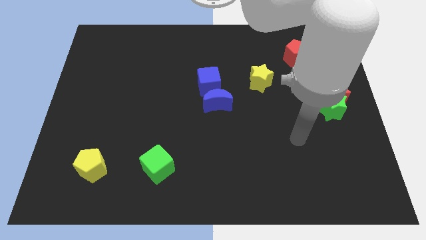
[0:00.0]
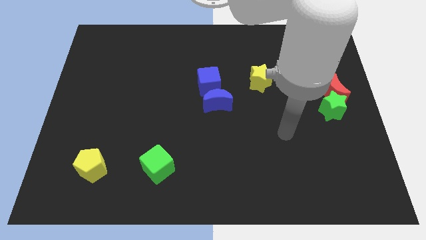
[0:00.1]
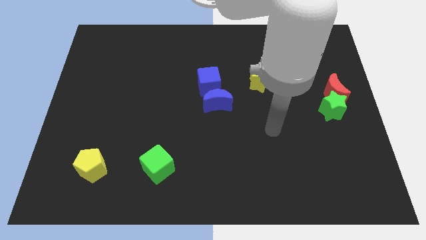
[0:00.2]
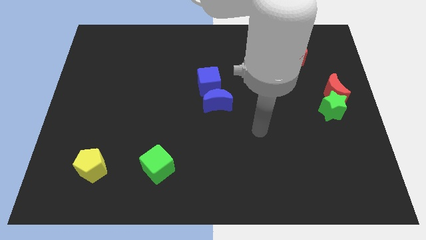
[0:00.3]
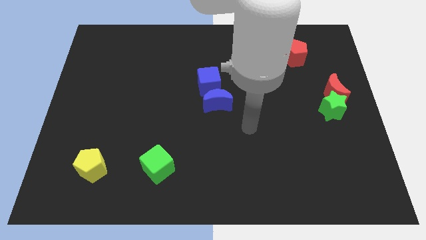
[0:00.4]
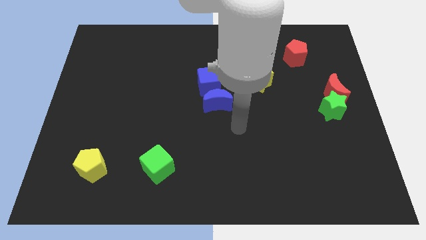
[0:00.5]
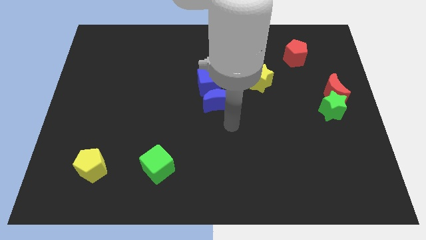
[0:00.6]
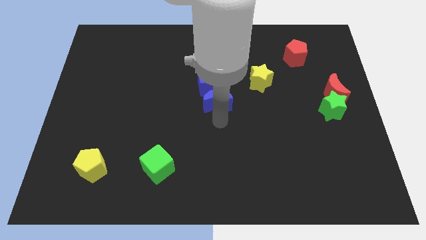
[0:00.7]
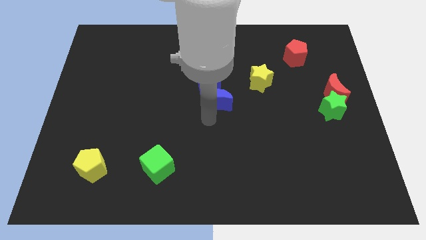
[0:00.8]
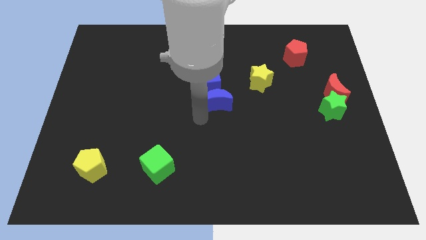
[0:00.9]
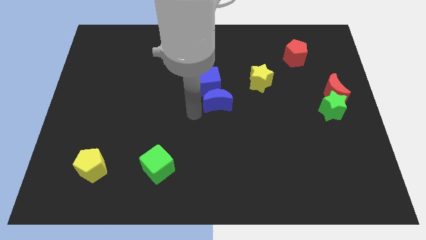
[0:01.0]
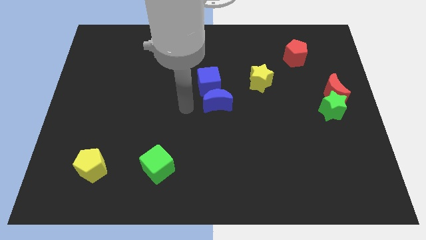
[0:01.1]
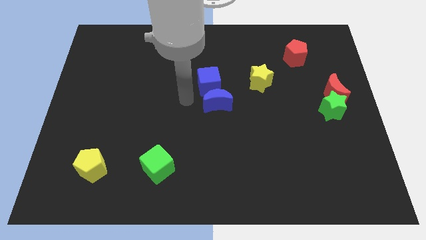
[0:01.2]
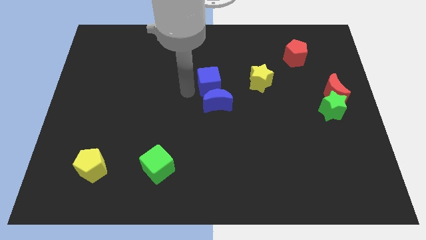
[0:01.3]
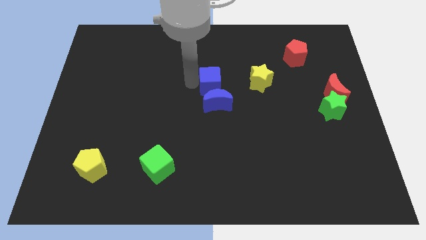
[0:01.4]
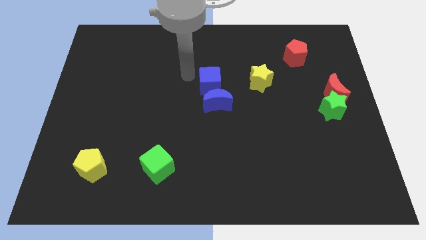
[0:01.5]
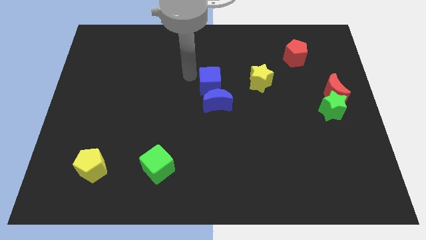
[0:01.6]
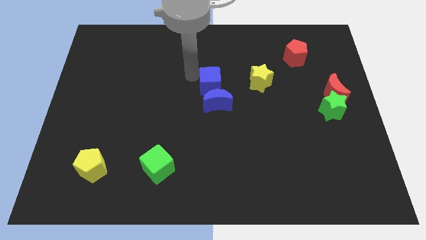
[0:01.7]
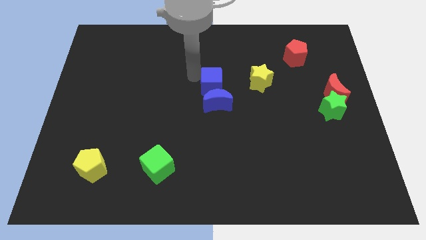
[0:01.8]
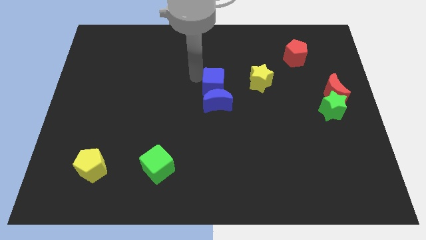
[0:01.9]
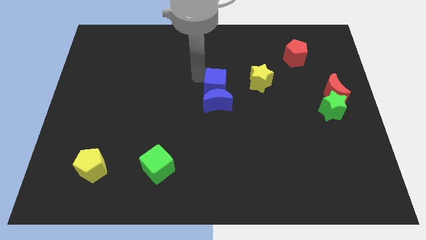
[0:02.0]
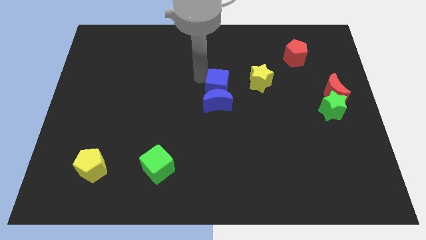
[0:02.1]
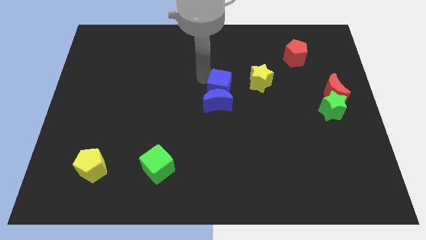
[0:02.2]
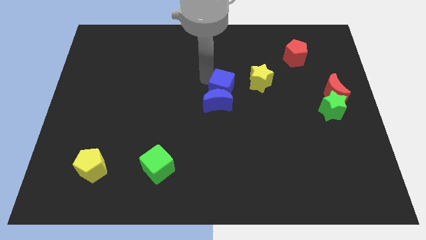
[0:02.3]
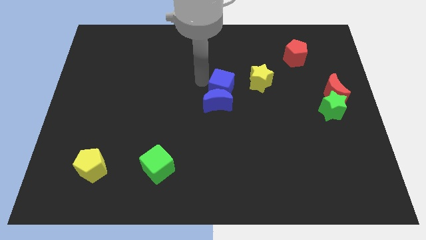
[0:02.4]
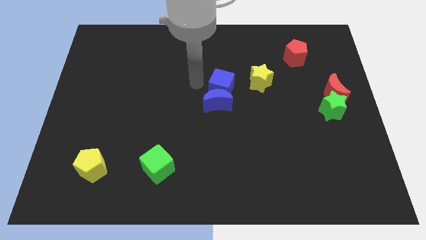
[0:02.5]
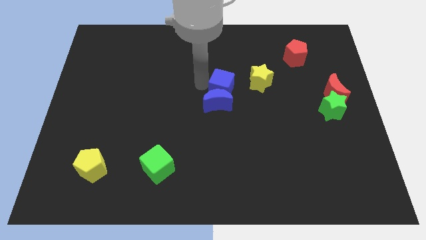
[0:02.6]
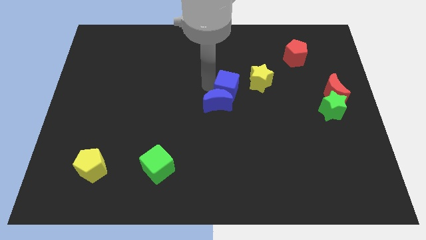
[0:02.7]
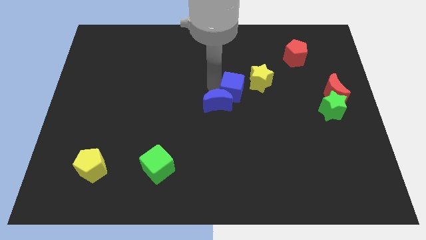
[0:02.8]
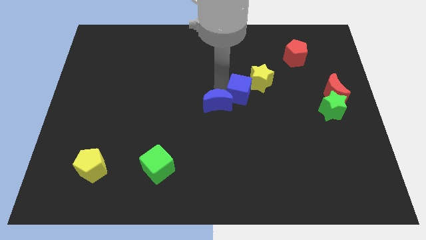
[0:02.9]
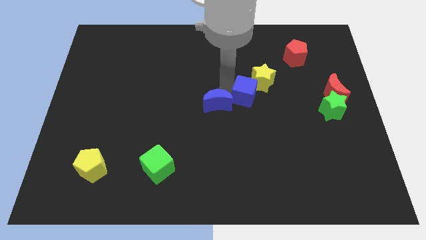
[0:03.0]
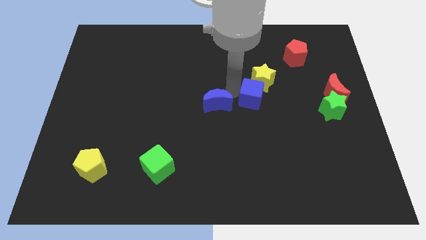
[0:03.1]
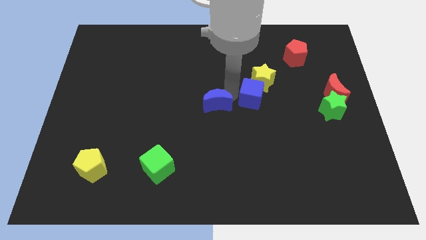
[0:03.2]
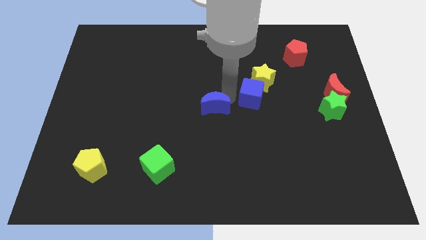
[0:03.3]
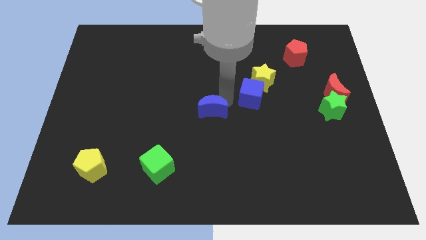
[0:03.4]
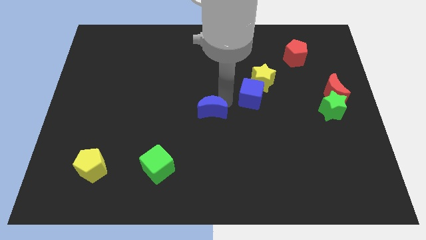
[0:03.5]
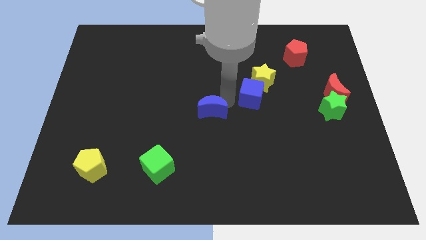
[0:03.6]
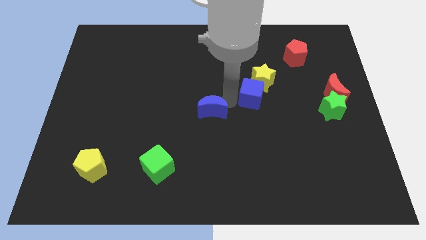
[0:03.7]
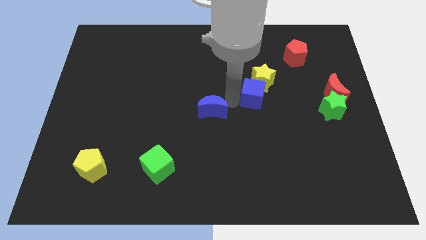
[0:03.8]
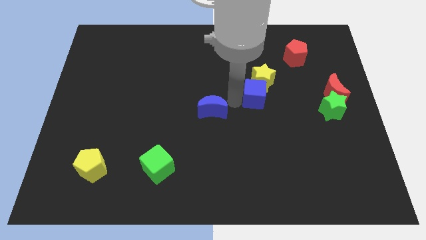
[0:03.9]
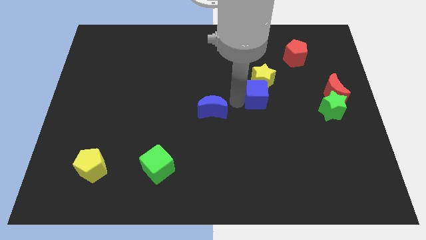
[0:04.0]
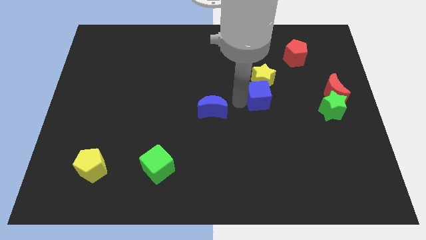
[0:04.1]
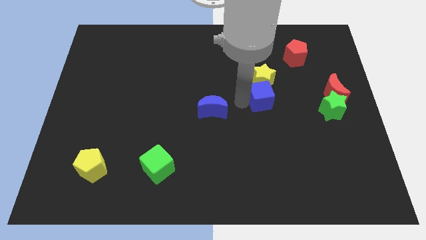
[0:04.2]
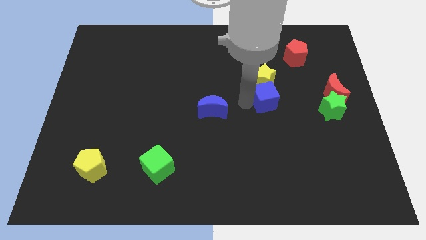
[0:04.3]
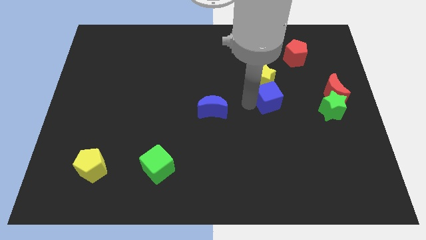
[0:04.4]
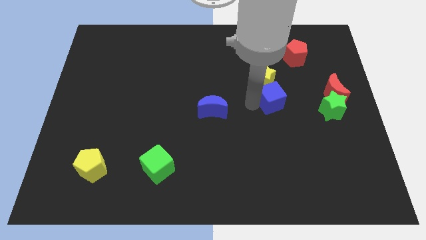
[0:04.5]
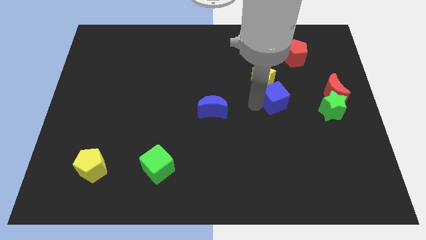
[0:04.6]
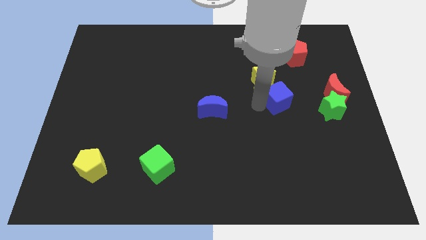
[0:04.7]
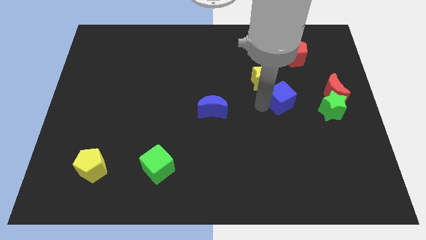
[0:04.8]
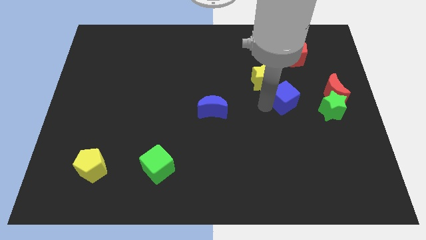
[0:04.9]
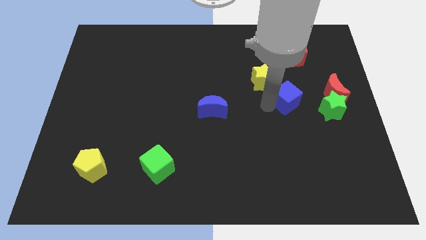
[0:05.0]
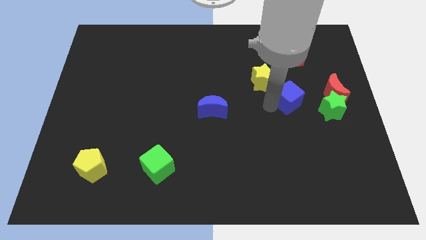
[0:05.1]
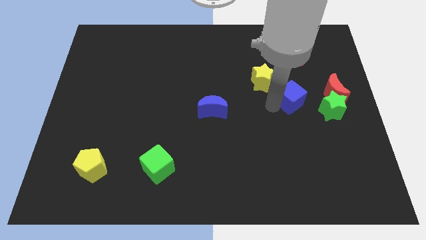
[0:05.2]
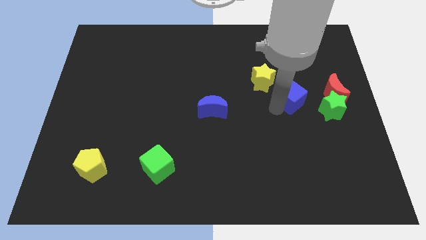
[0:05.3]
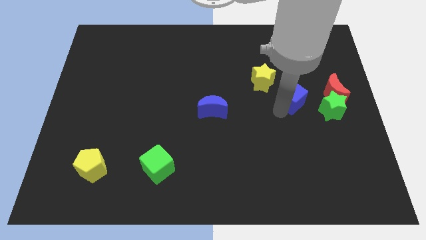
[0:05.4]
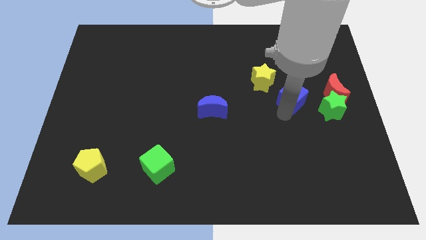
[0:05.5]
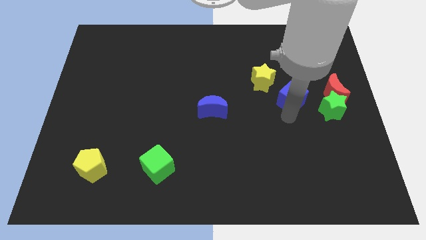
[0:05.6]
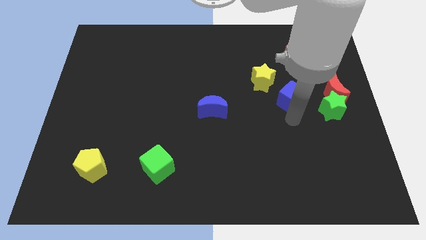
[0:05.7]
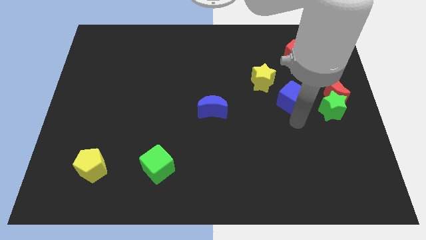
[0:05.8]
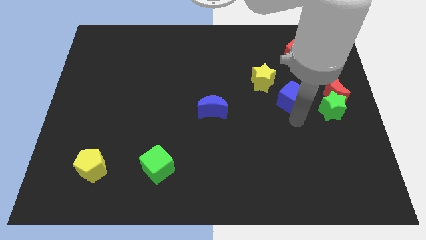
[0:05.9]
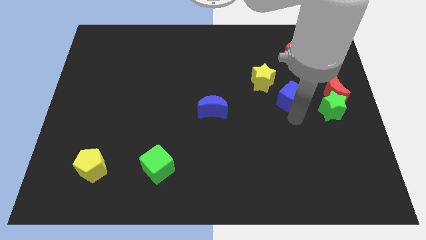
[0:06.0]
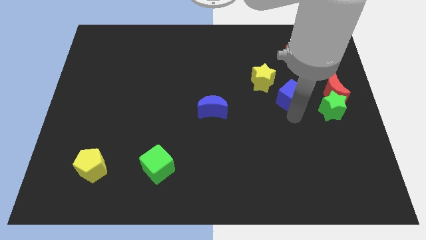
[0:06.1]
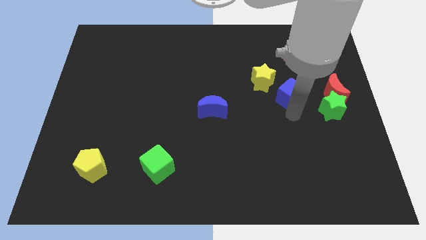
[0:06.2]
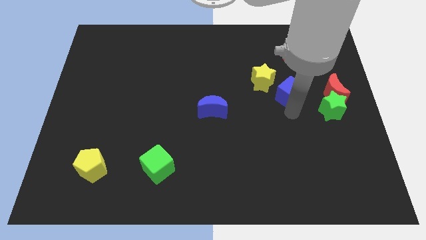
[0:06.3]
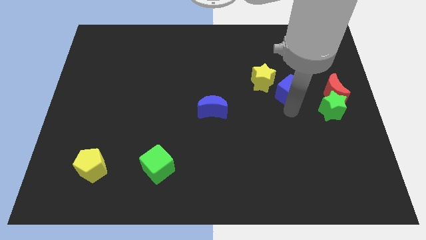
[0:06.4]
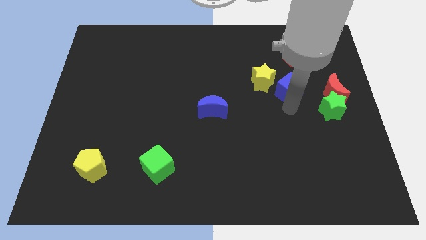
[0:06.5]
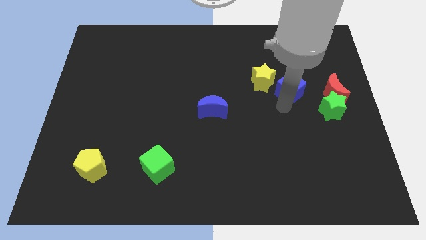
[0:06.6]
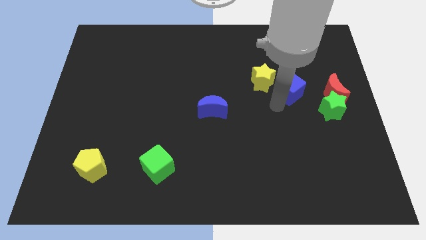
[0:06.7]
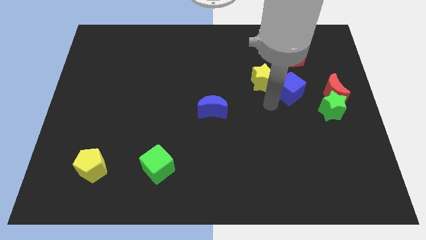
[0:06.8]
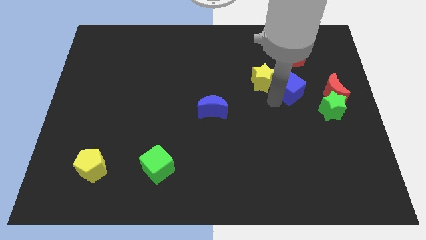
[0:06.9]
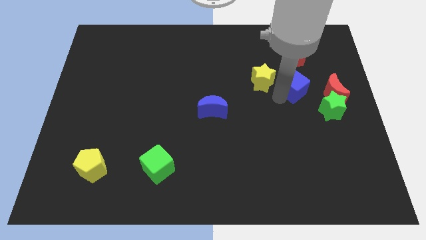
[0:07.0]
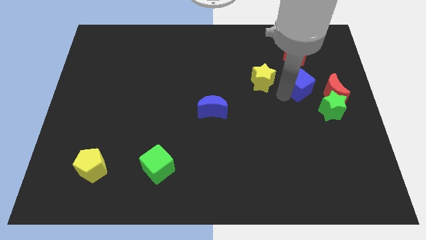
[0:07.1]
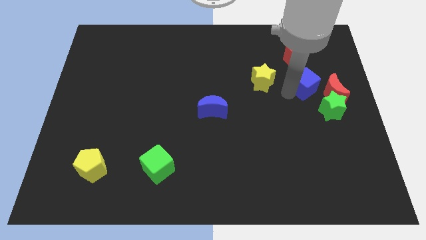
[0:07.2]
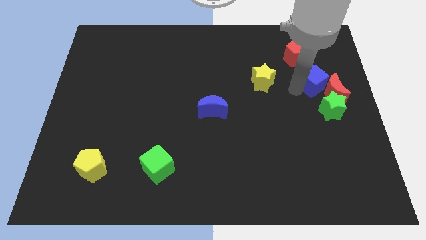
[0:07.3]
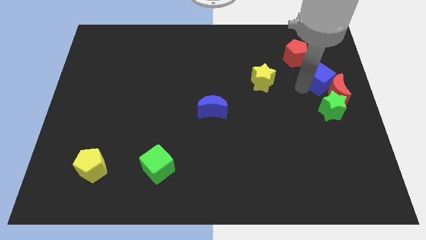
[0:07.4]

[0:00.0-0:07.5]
put the blue cube to the right side
